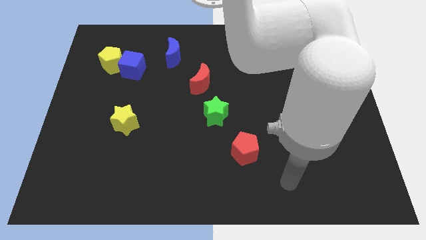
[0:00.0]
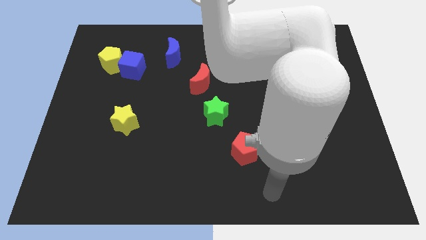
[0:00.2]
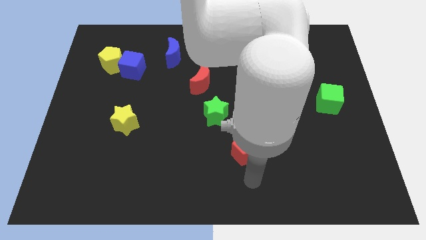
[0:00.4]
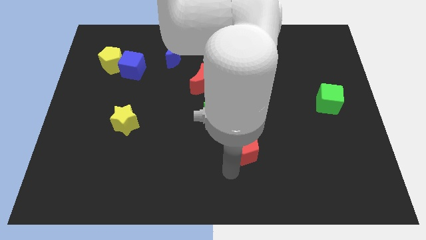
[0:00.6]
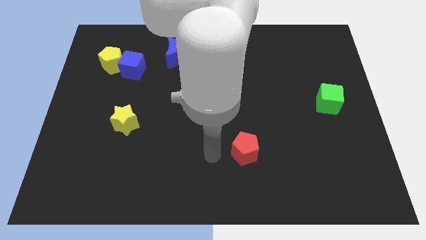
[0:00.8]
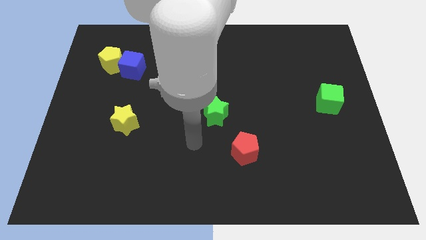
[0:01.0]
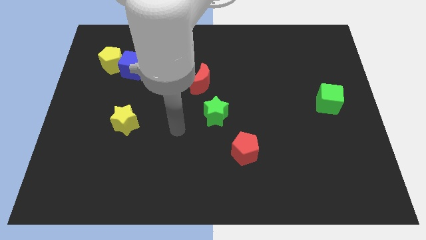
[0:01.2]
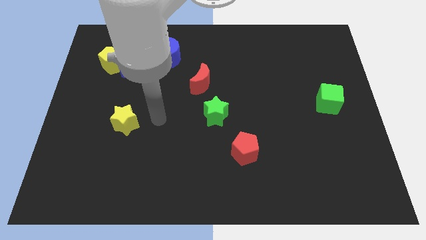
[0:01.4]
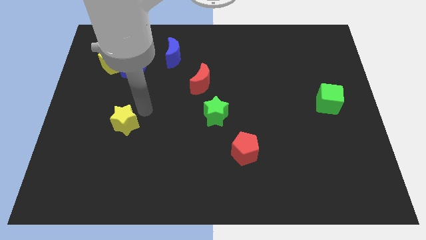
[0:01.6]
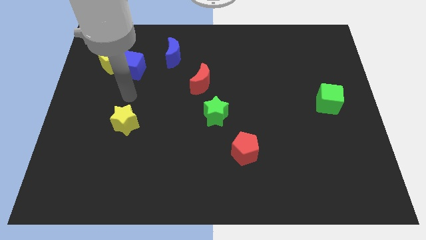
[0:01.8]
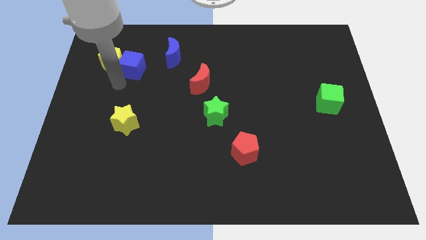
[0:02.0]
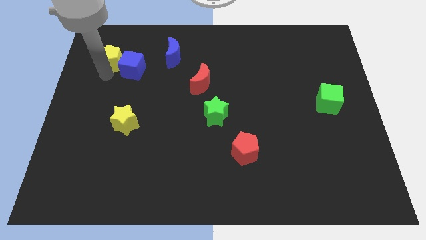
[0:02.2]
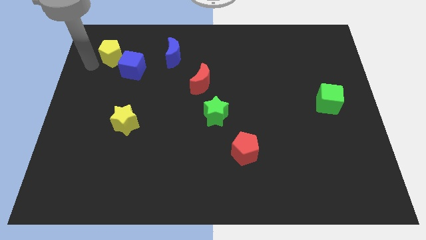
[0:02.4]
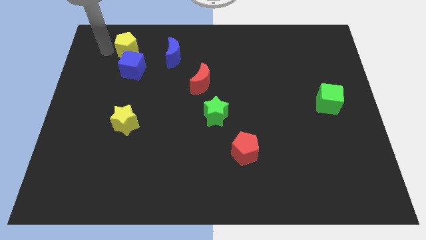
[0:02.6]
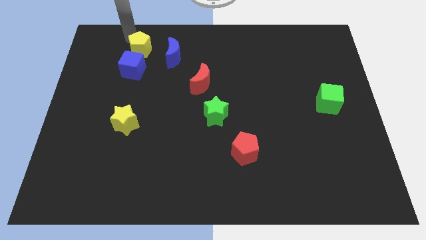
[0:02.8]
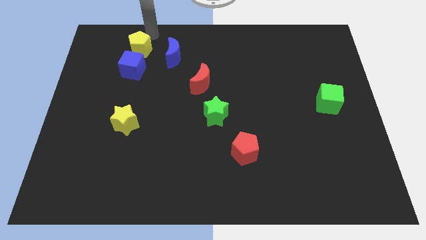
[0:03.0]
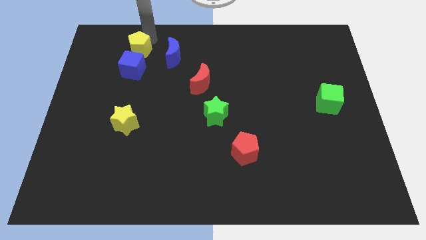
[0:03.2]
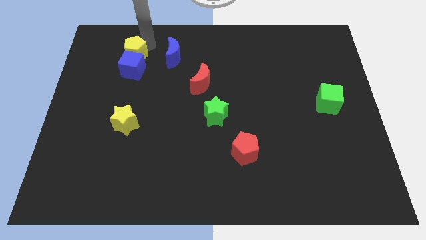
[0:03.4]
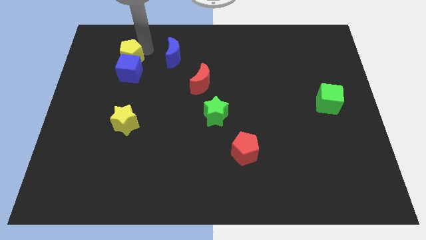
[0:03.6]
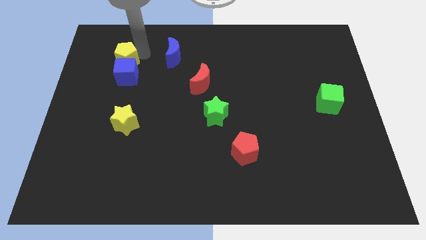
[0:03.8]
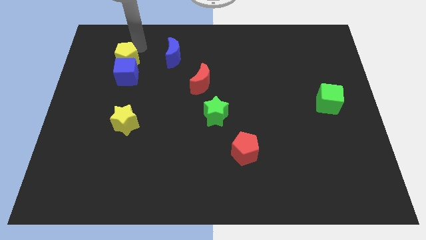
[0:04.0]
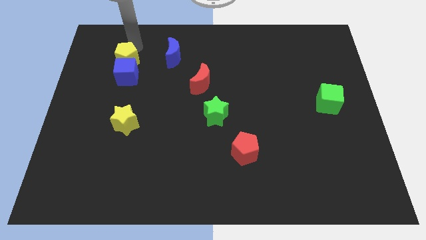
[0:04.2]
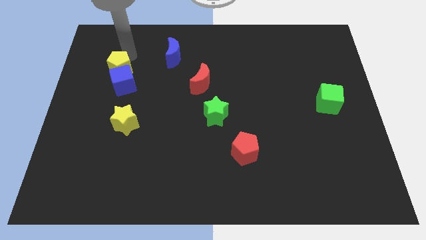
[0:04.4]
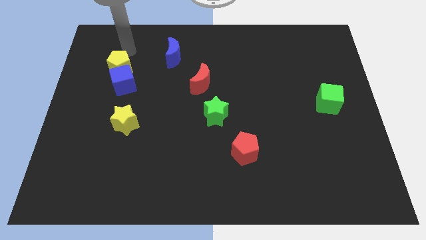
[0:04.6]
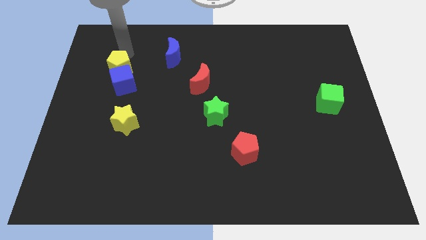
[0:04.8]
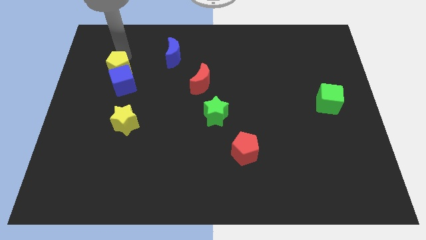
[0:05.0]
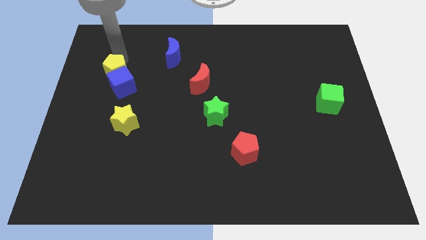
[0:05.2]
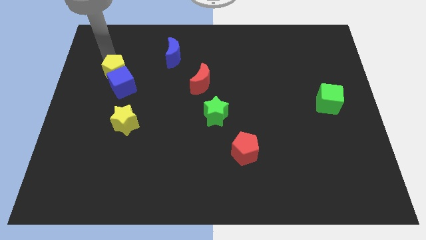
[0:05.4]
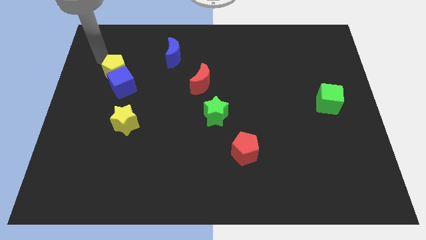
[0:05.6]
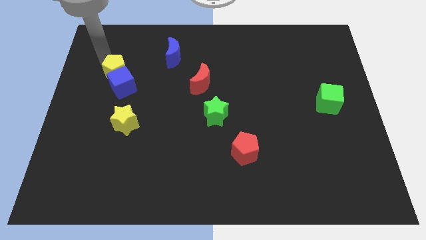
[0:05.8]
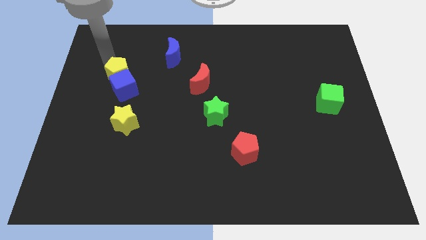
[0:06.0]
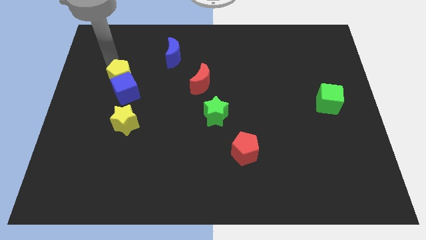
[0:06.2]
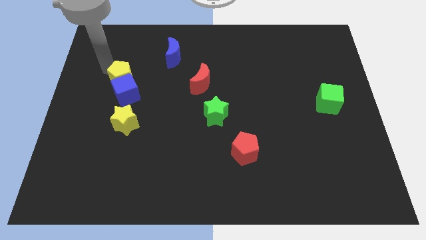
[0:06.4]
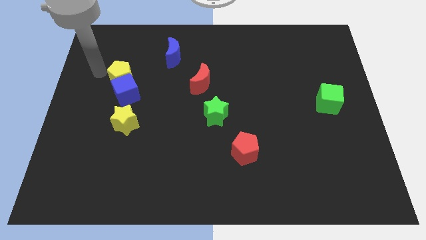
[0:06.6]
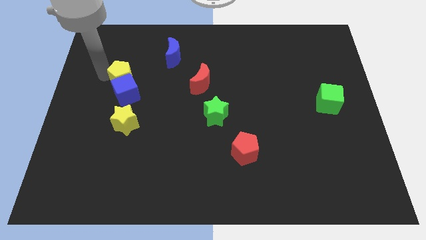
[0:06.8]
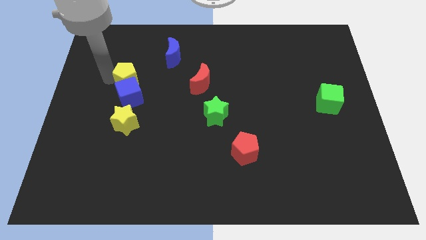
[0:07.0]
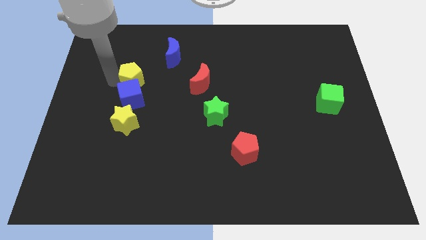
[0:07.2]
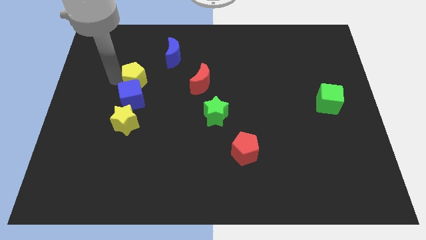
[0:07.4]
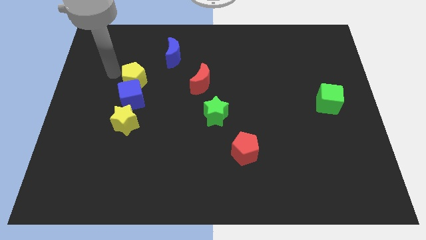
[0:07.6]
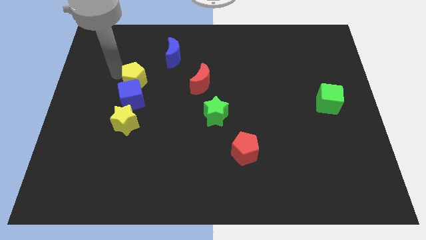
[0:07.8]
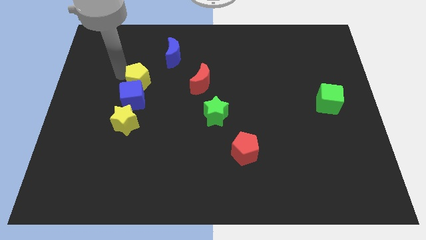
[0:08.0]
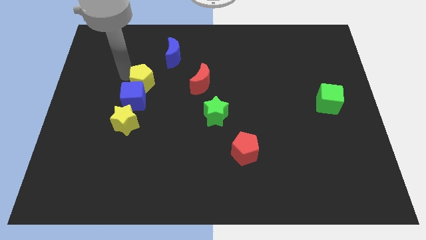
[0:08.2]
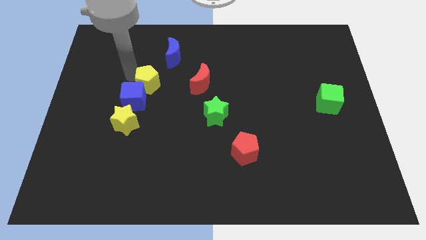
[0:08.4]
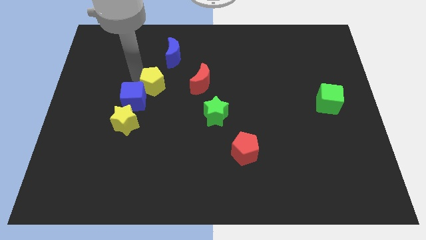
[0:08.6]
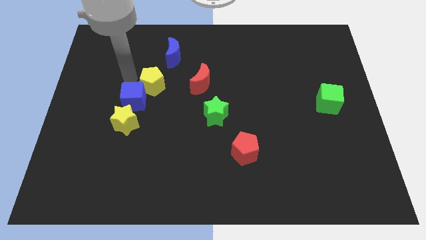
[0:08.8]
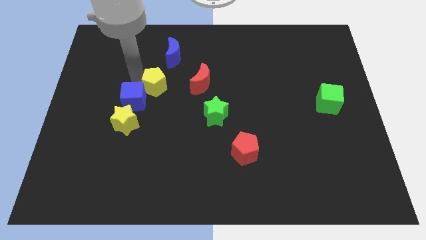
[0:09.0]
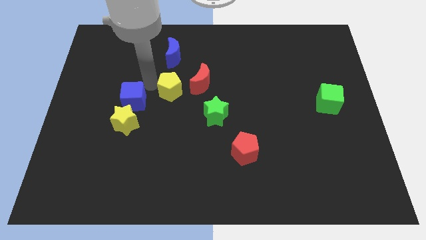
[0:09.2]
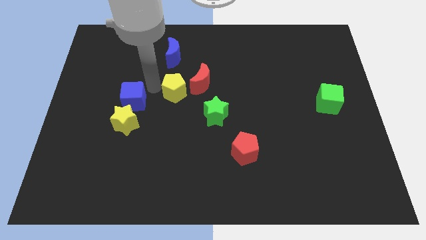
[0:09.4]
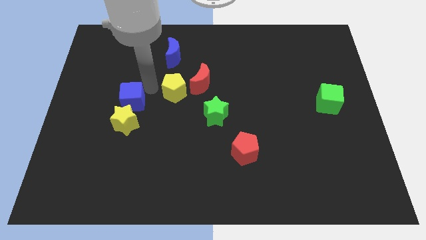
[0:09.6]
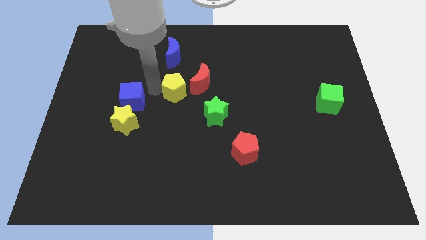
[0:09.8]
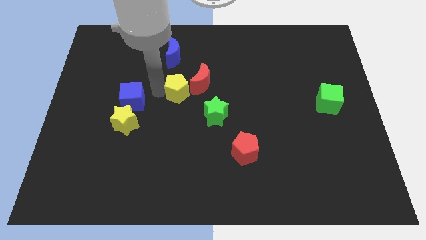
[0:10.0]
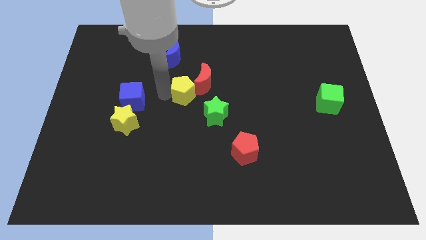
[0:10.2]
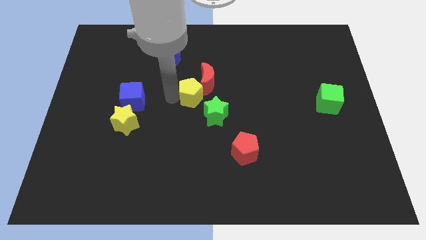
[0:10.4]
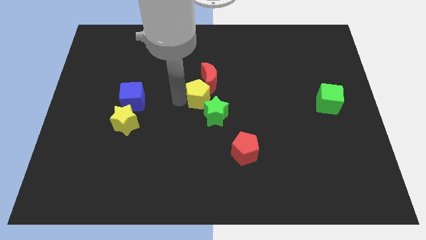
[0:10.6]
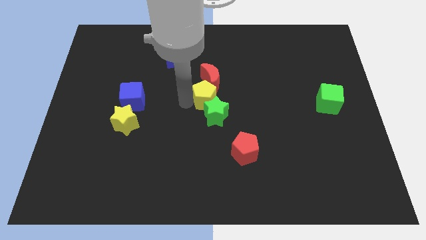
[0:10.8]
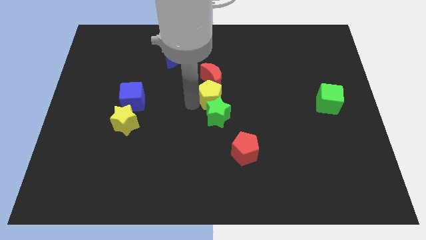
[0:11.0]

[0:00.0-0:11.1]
slide the yellow pentagon to the bottom right of the red moon

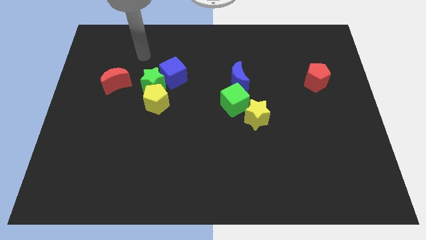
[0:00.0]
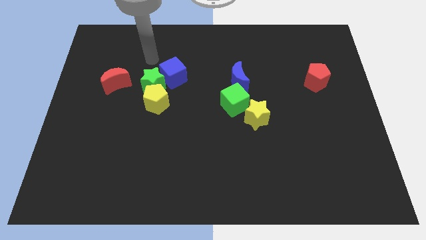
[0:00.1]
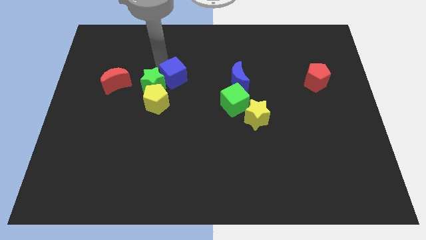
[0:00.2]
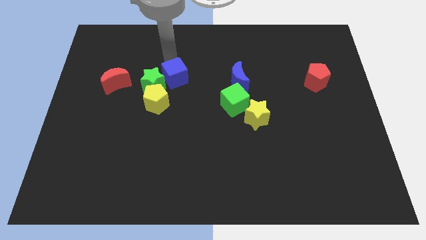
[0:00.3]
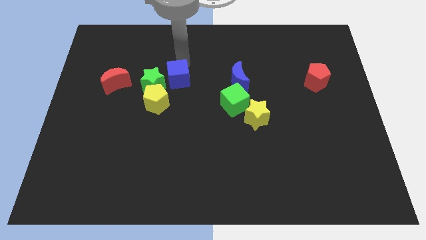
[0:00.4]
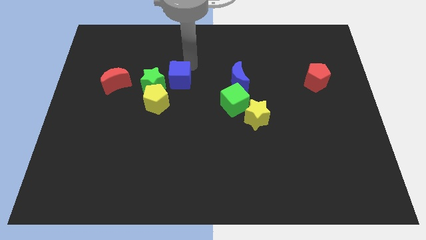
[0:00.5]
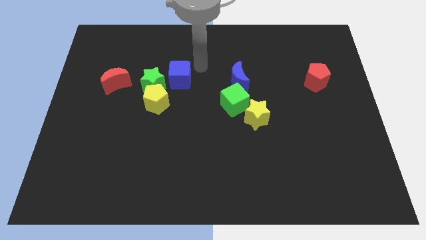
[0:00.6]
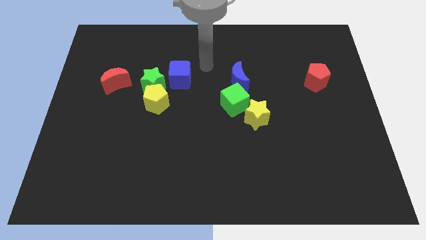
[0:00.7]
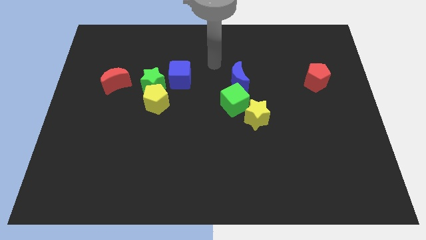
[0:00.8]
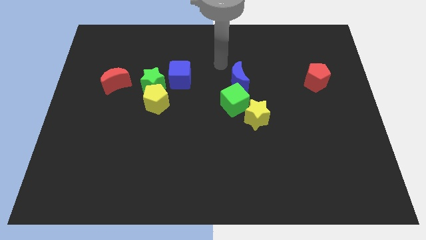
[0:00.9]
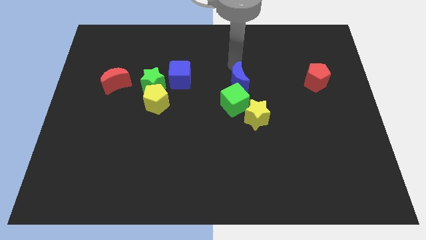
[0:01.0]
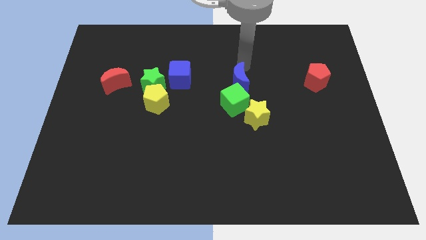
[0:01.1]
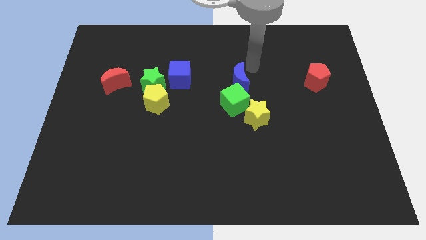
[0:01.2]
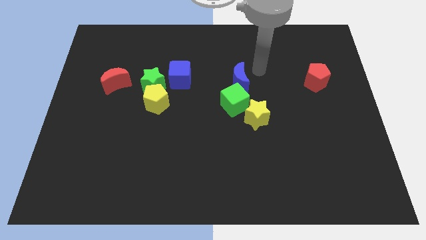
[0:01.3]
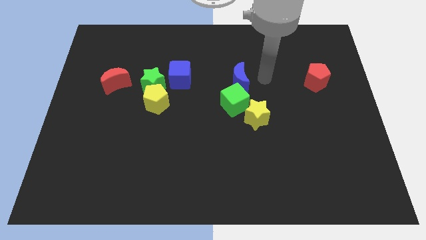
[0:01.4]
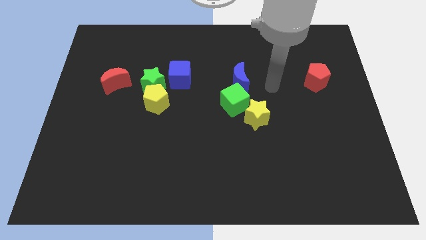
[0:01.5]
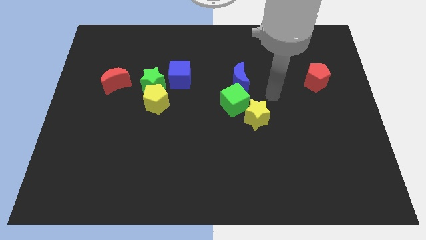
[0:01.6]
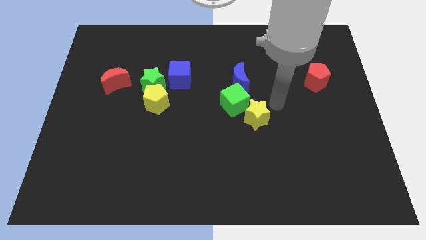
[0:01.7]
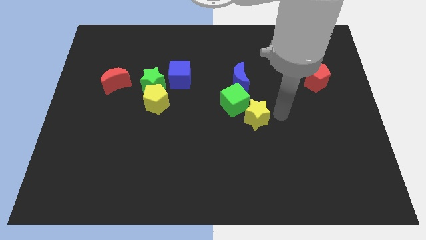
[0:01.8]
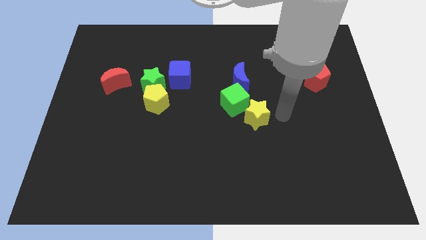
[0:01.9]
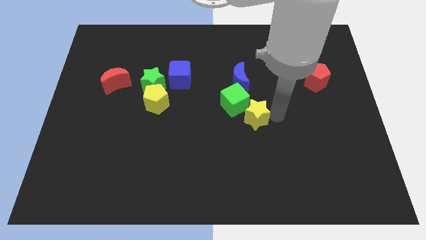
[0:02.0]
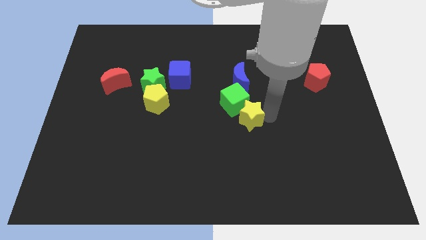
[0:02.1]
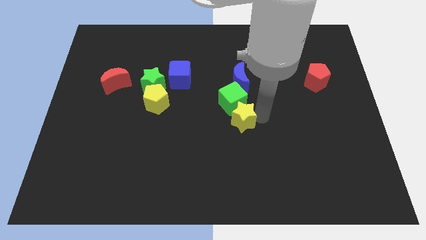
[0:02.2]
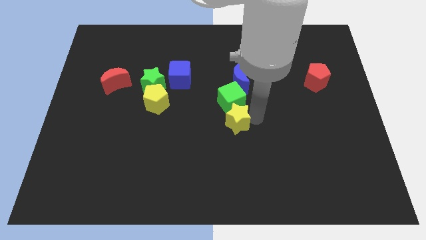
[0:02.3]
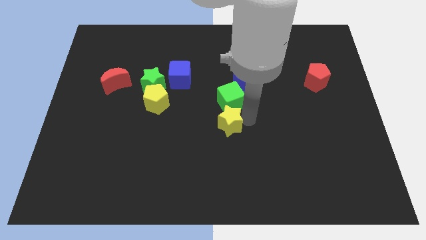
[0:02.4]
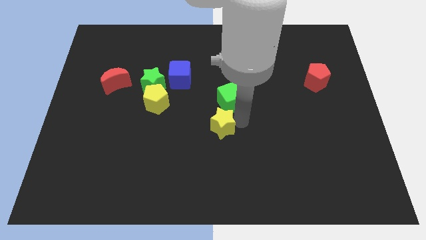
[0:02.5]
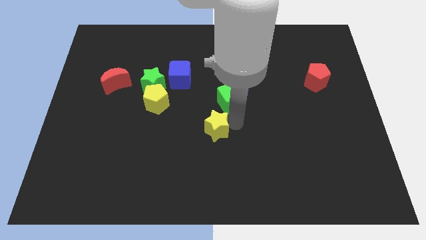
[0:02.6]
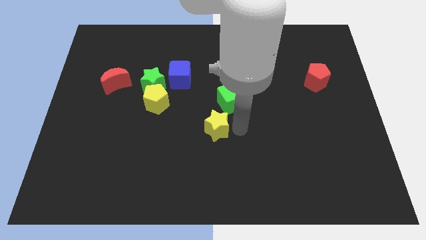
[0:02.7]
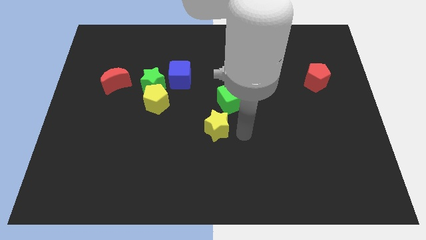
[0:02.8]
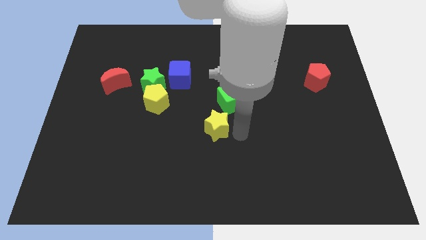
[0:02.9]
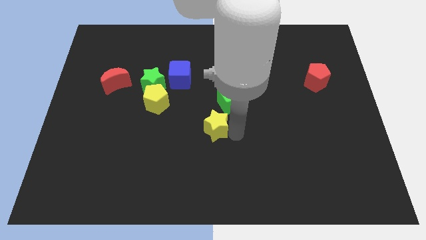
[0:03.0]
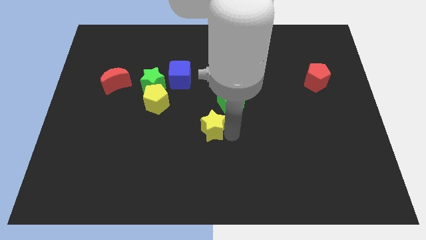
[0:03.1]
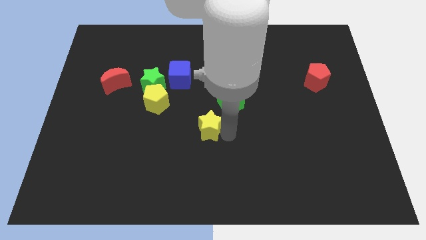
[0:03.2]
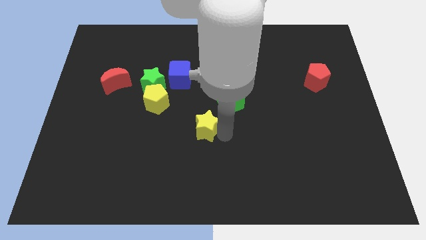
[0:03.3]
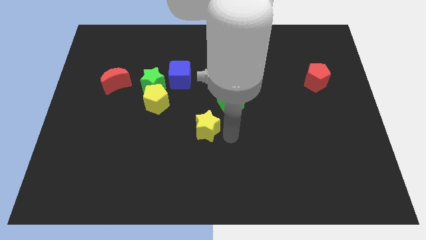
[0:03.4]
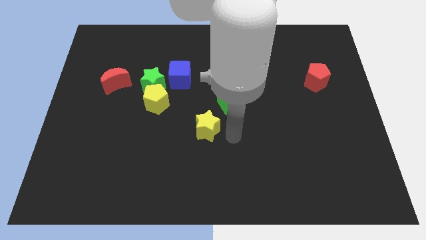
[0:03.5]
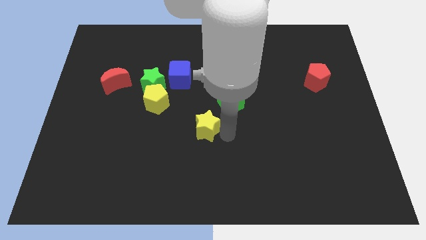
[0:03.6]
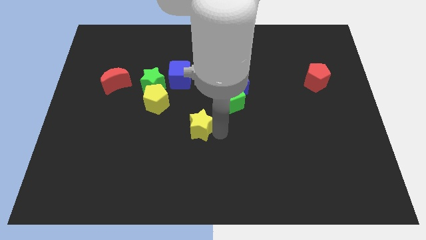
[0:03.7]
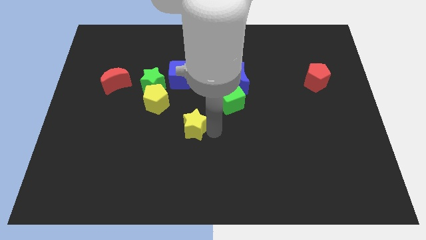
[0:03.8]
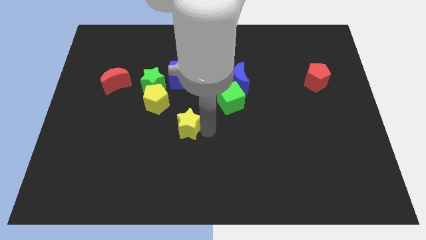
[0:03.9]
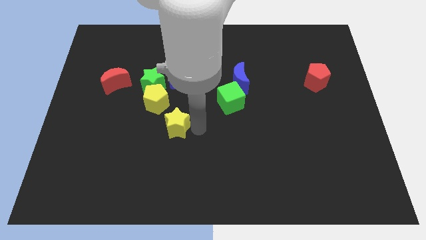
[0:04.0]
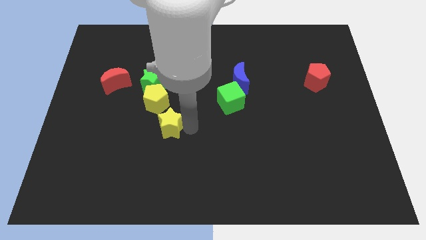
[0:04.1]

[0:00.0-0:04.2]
push the yellow star to the bottom of the green star
